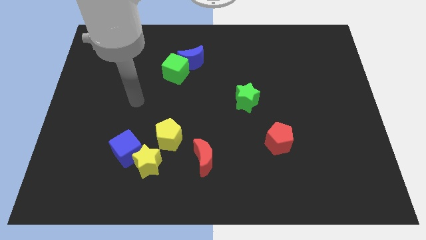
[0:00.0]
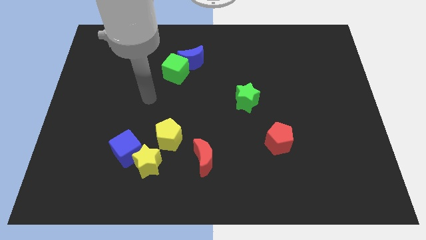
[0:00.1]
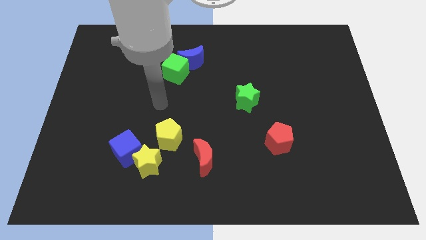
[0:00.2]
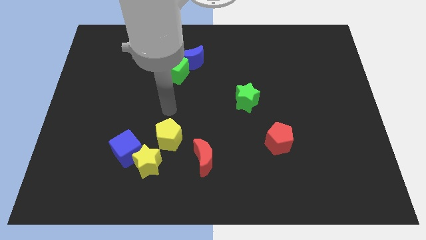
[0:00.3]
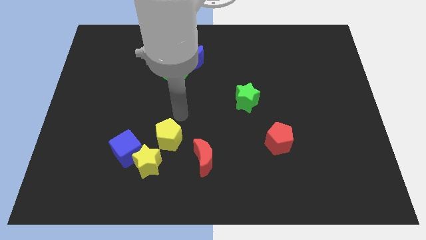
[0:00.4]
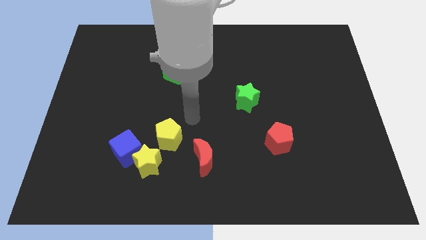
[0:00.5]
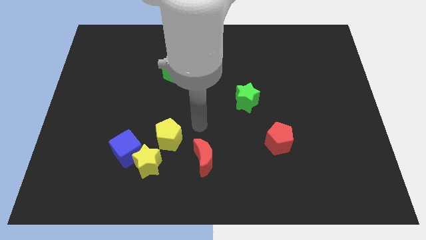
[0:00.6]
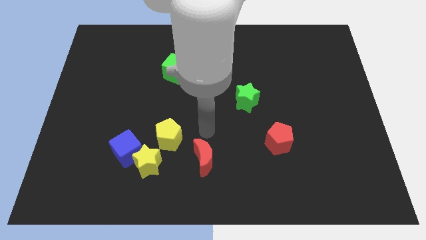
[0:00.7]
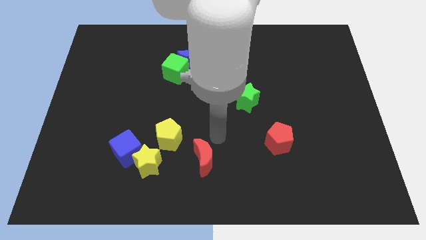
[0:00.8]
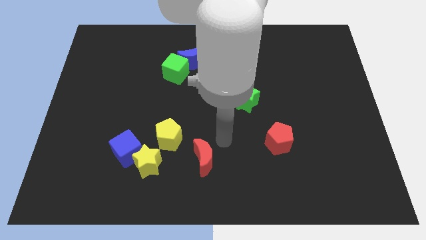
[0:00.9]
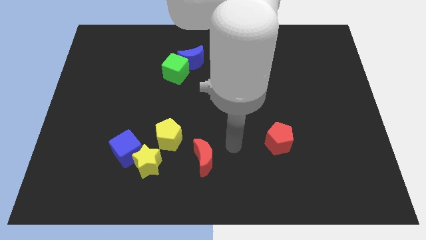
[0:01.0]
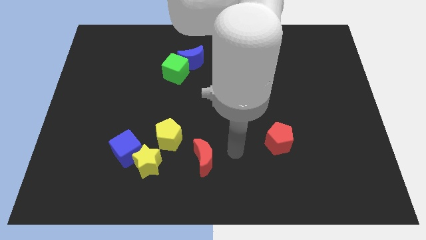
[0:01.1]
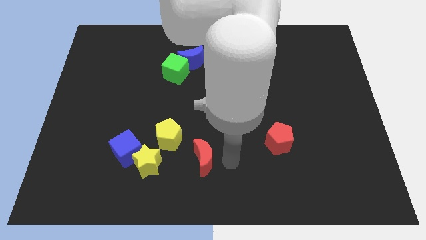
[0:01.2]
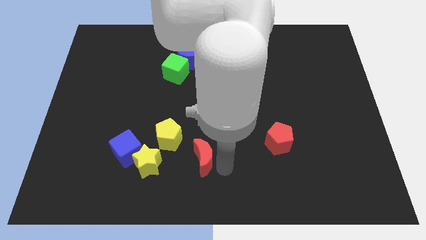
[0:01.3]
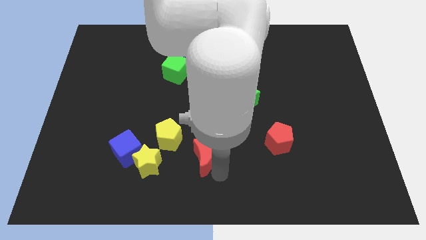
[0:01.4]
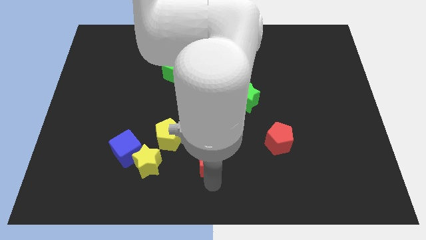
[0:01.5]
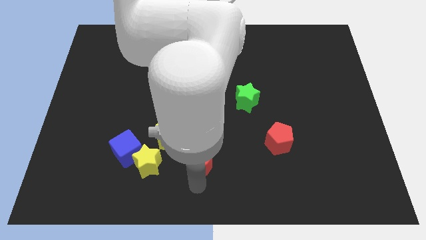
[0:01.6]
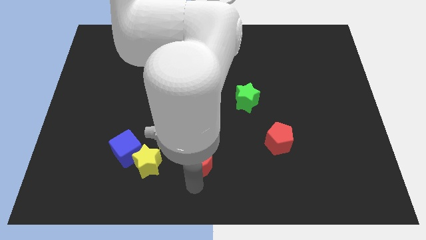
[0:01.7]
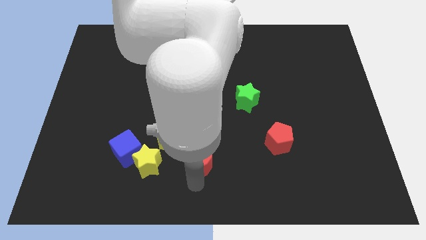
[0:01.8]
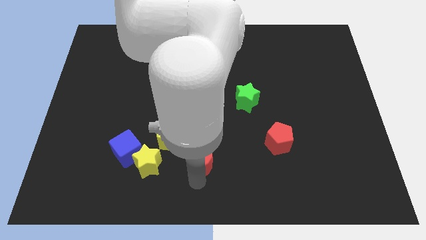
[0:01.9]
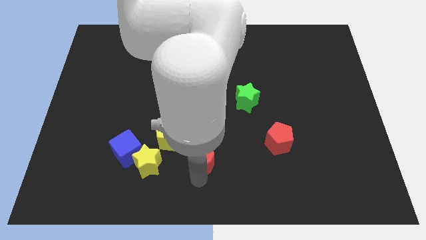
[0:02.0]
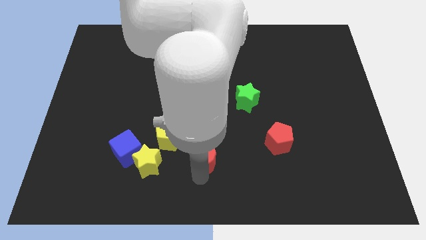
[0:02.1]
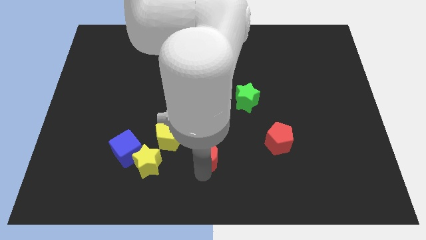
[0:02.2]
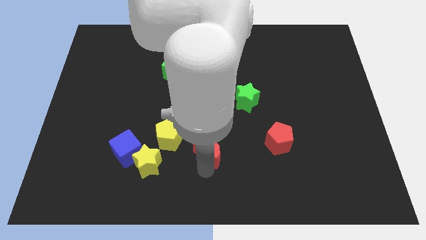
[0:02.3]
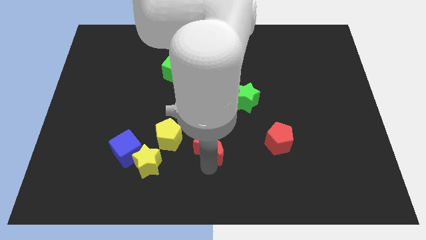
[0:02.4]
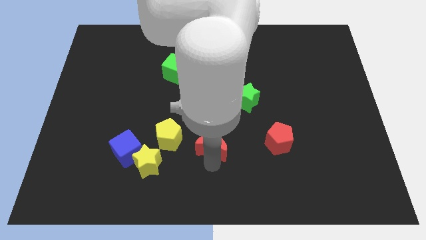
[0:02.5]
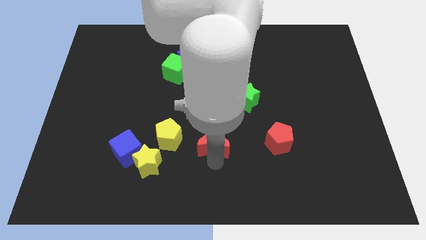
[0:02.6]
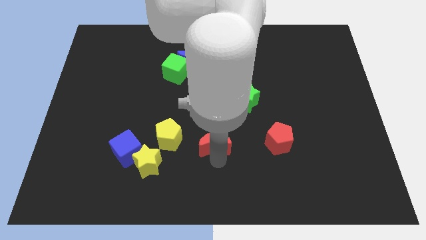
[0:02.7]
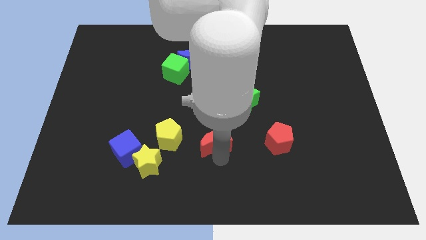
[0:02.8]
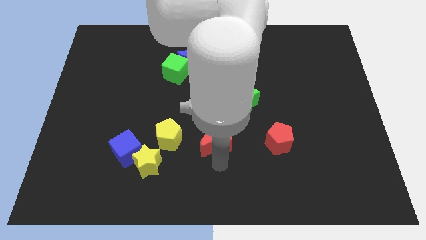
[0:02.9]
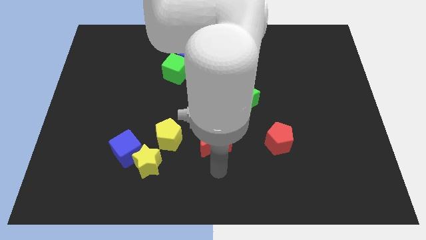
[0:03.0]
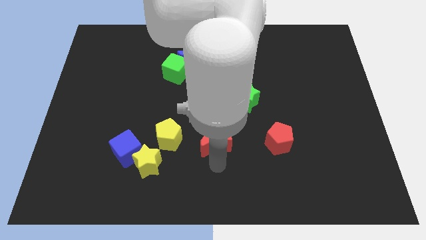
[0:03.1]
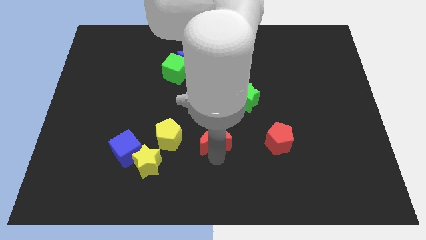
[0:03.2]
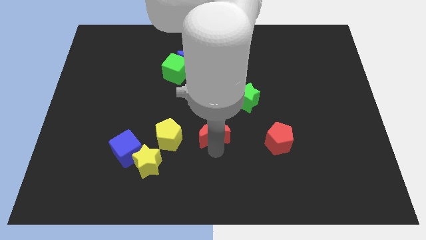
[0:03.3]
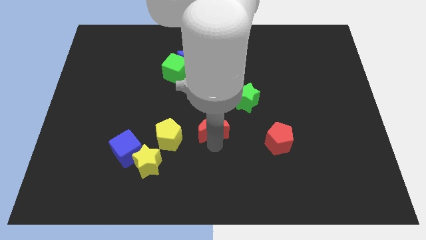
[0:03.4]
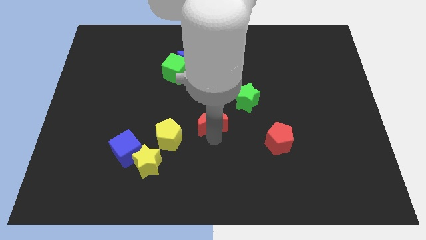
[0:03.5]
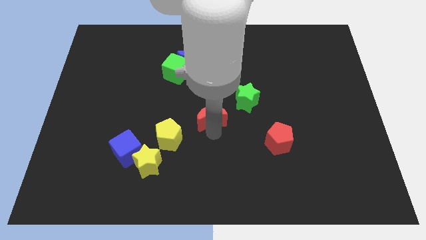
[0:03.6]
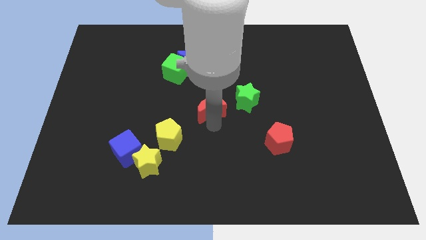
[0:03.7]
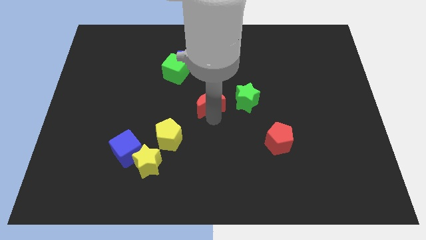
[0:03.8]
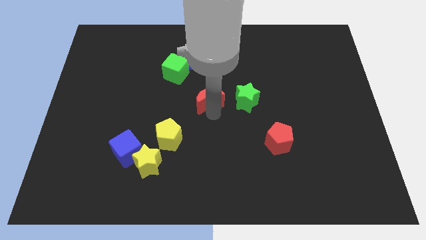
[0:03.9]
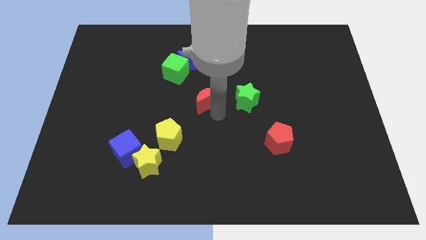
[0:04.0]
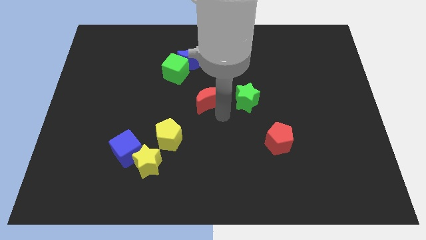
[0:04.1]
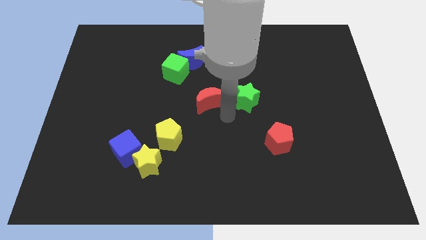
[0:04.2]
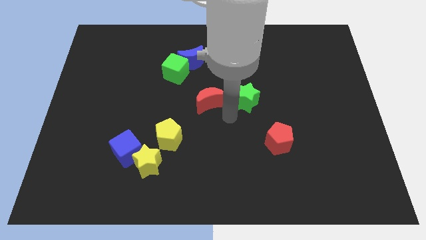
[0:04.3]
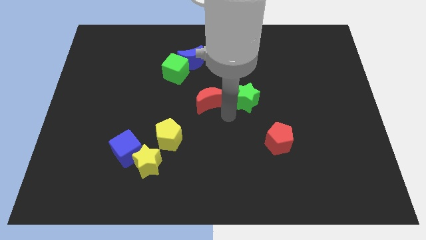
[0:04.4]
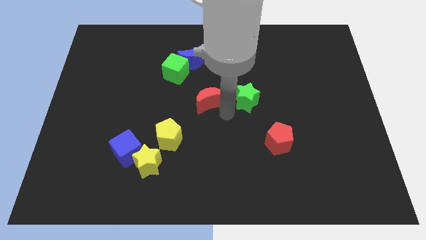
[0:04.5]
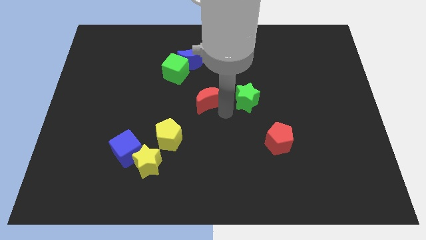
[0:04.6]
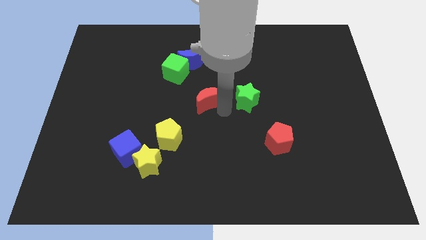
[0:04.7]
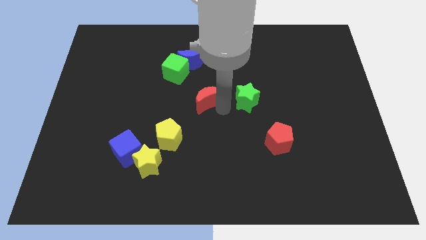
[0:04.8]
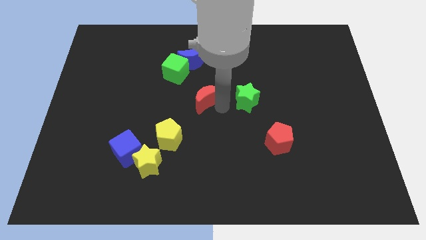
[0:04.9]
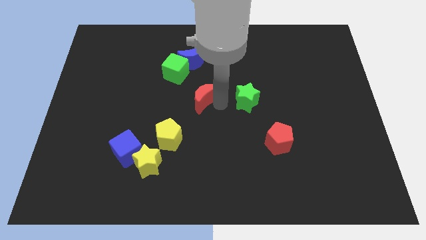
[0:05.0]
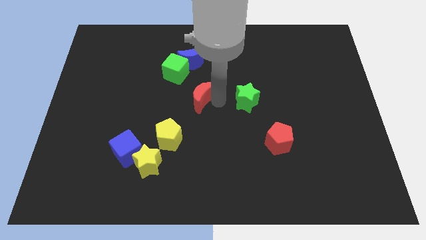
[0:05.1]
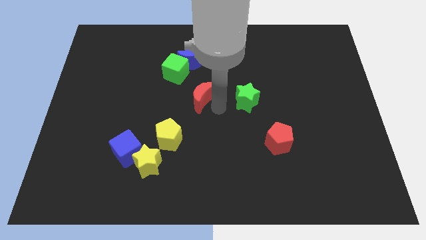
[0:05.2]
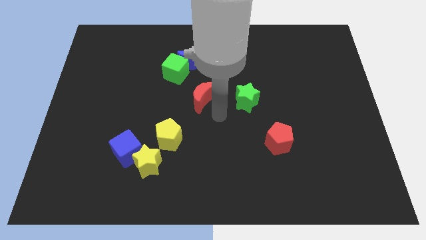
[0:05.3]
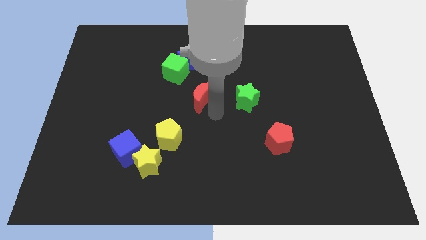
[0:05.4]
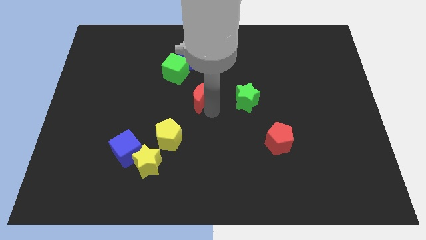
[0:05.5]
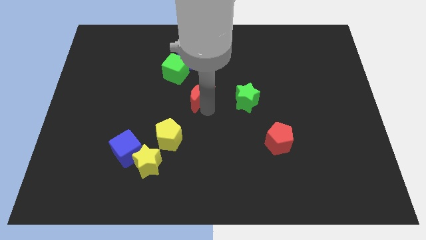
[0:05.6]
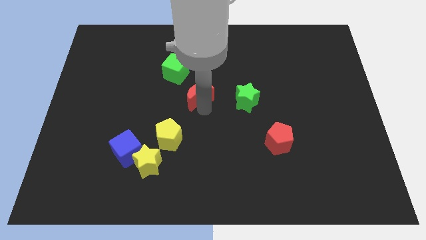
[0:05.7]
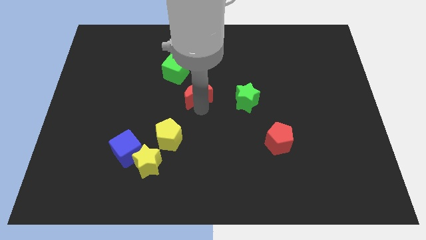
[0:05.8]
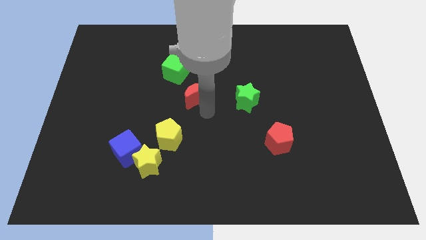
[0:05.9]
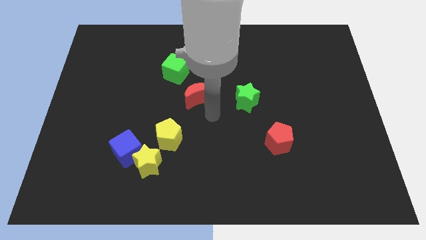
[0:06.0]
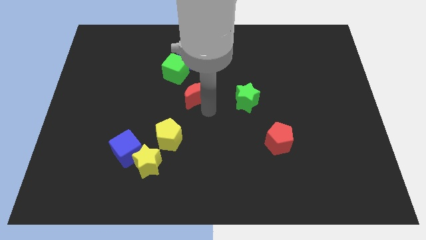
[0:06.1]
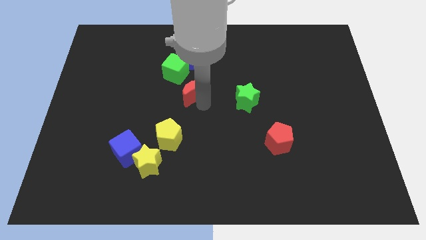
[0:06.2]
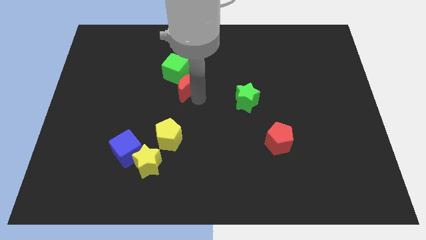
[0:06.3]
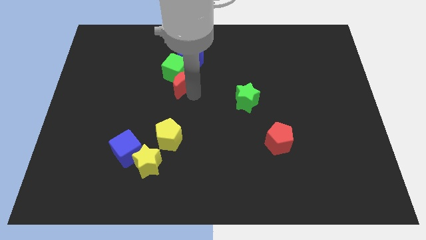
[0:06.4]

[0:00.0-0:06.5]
move the red moon close to the green cube

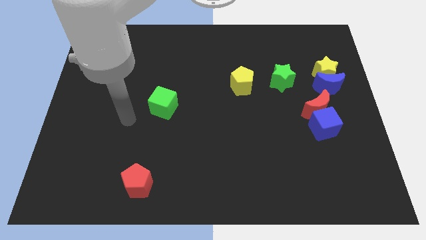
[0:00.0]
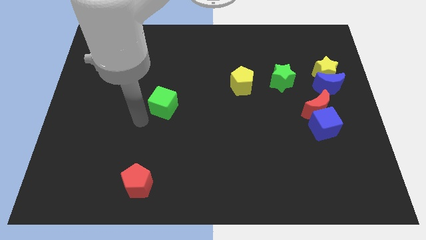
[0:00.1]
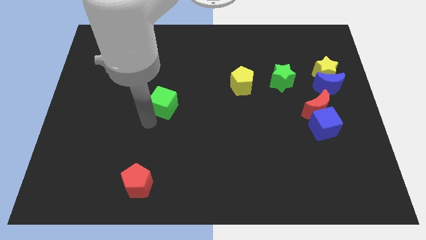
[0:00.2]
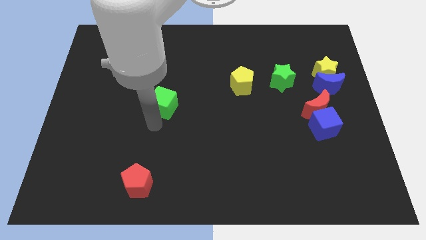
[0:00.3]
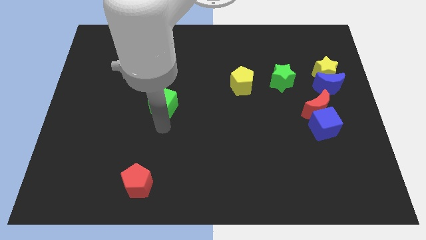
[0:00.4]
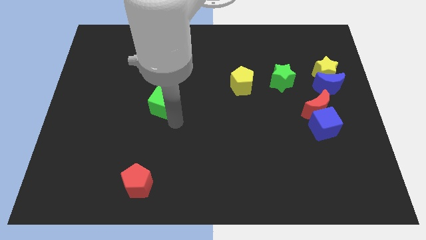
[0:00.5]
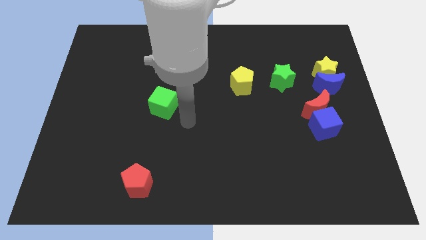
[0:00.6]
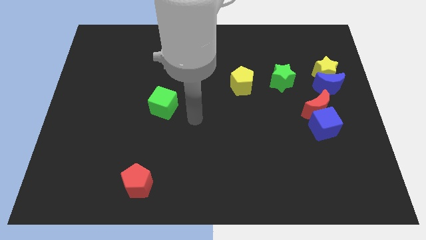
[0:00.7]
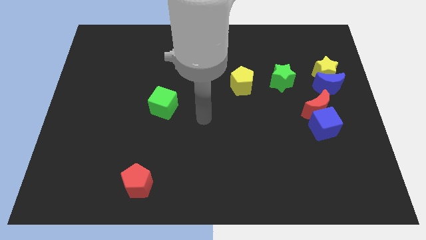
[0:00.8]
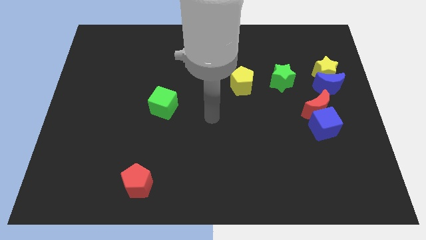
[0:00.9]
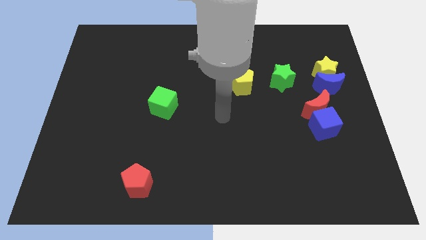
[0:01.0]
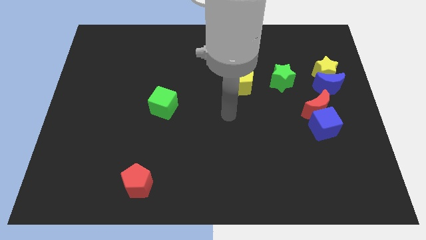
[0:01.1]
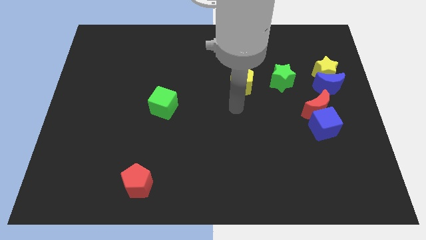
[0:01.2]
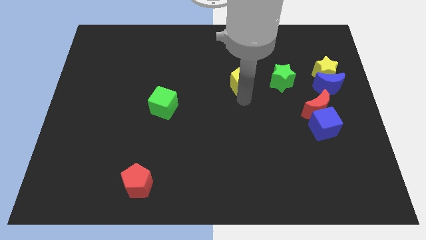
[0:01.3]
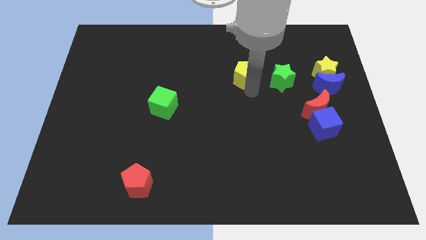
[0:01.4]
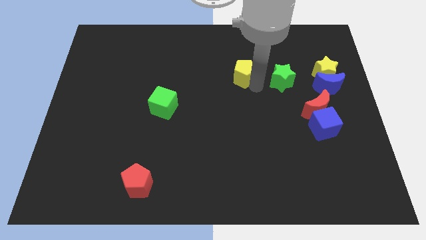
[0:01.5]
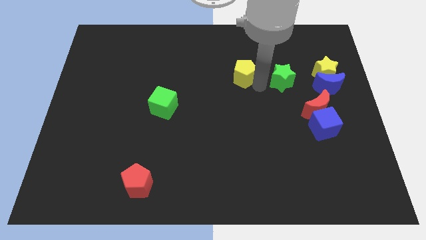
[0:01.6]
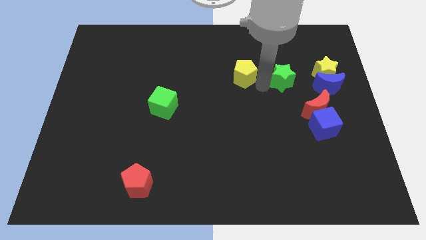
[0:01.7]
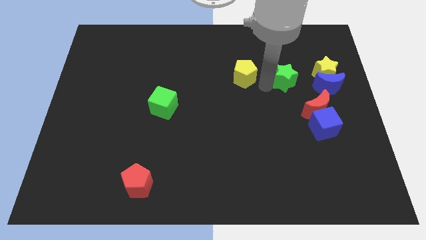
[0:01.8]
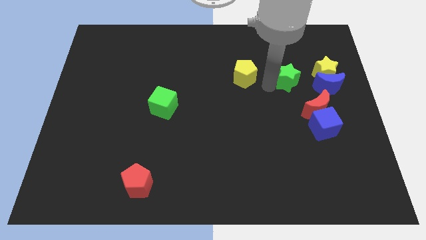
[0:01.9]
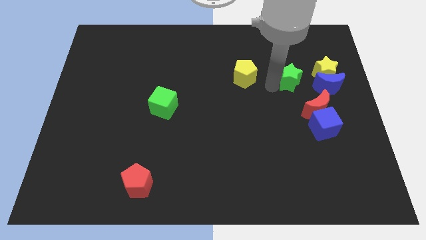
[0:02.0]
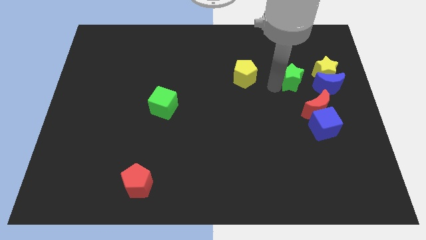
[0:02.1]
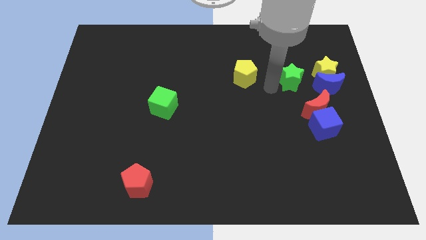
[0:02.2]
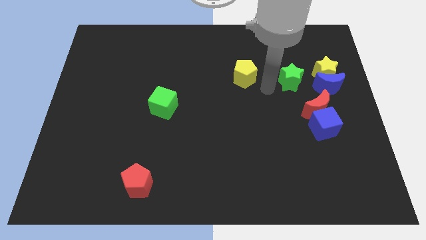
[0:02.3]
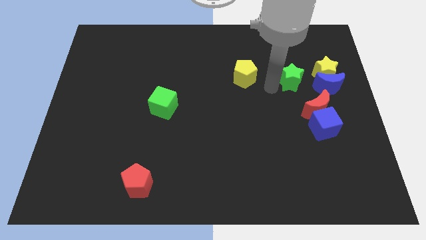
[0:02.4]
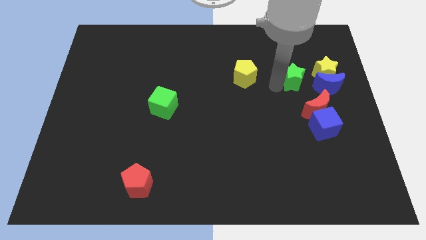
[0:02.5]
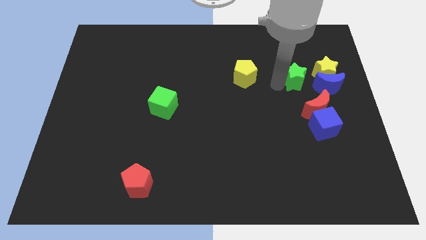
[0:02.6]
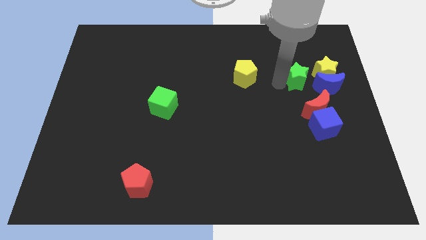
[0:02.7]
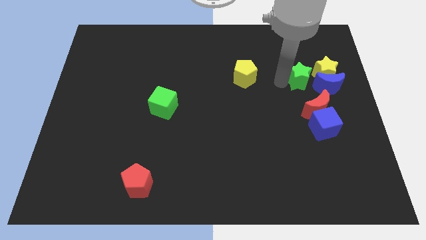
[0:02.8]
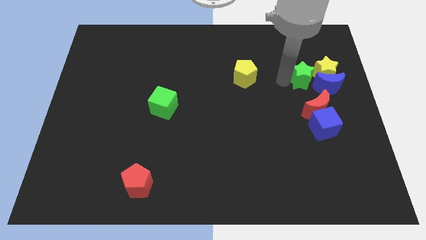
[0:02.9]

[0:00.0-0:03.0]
push the green star next to the yellow star
